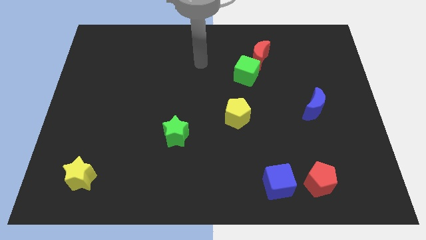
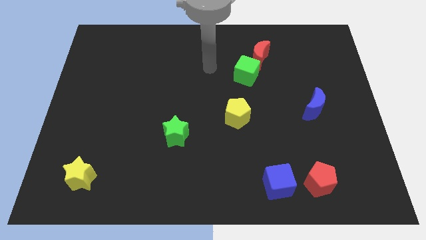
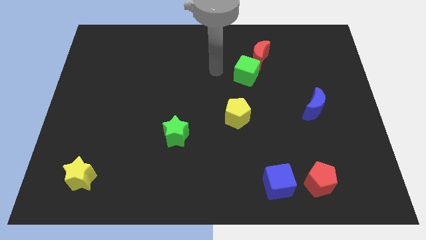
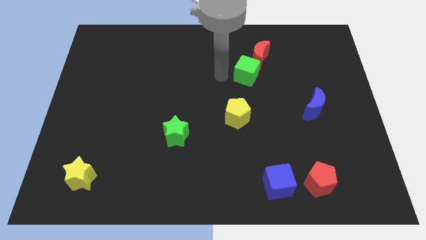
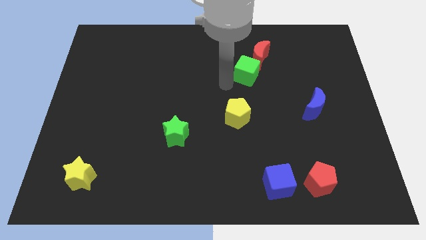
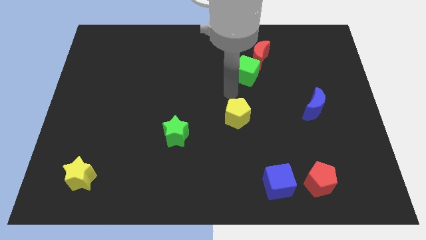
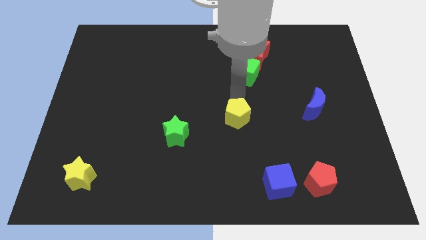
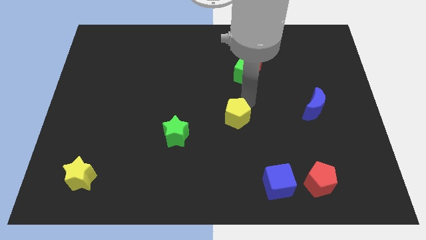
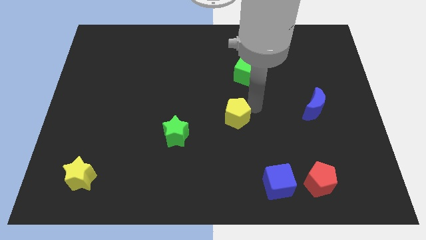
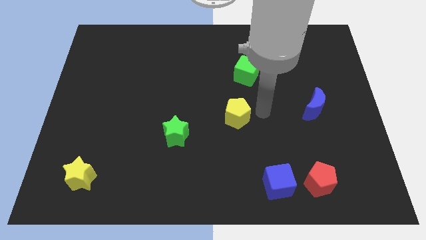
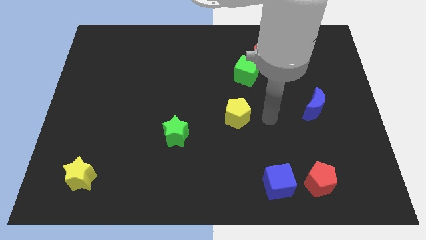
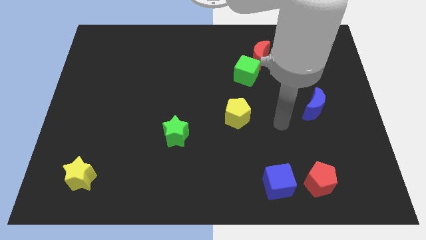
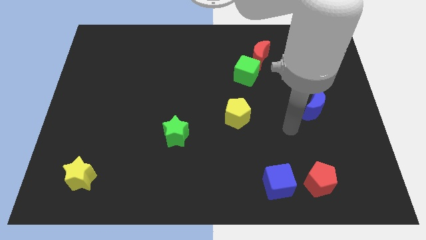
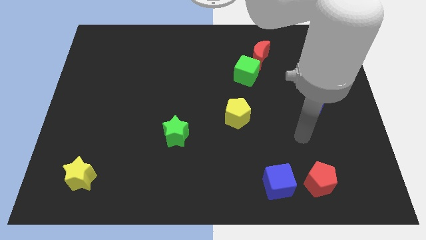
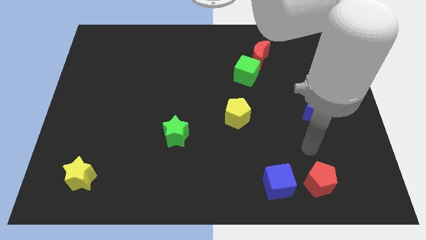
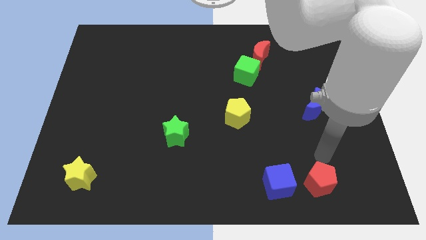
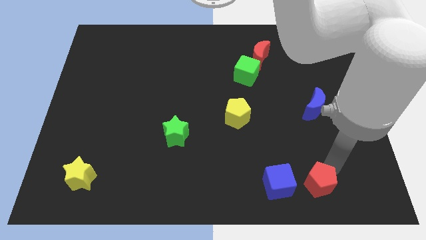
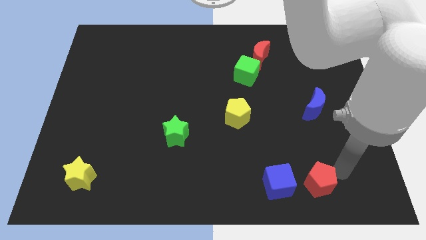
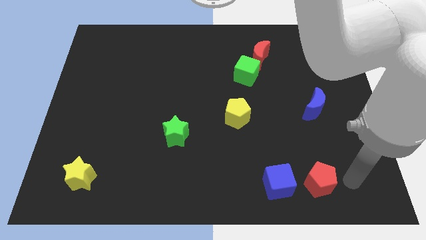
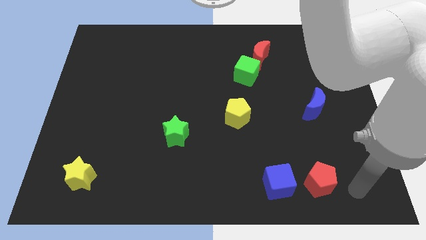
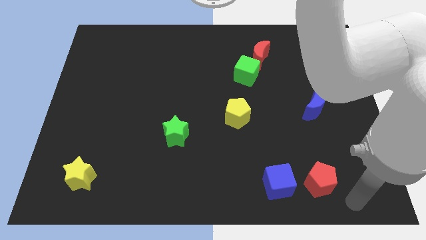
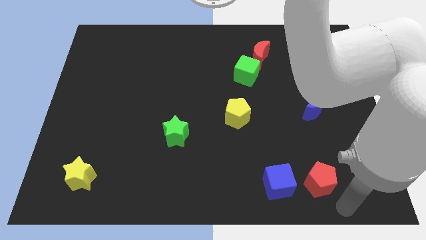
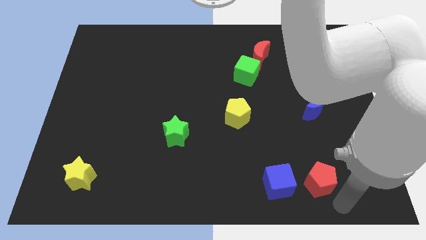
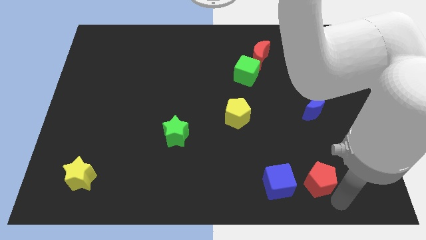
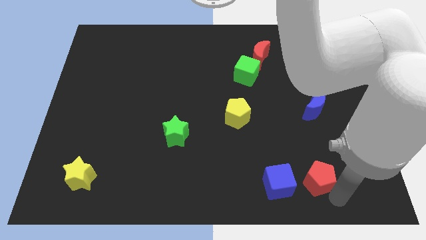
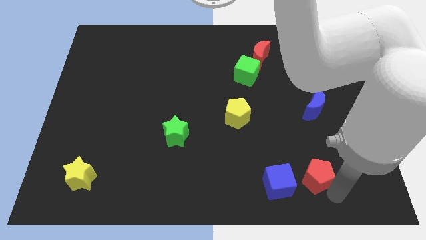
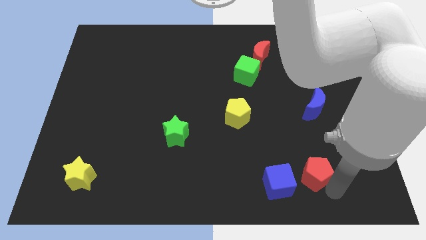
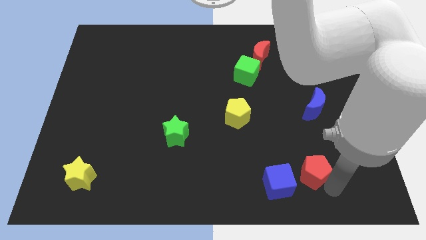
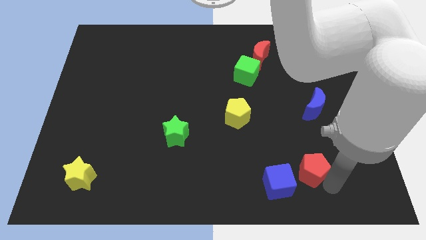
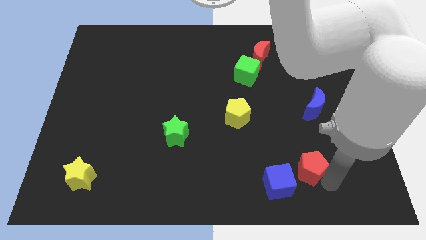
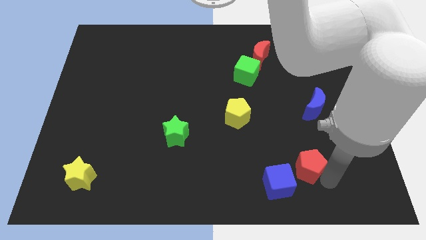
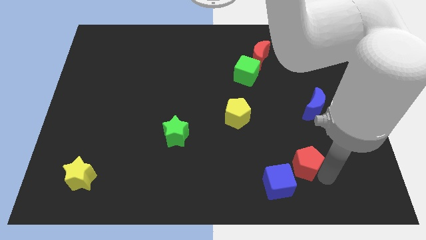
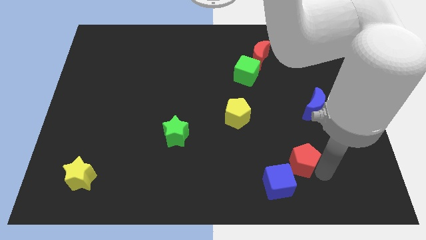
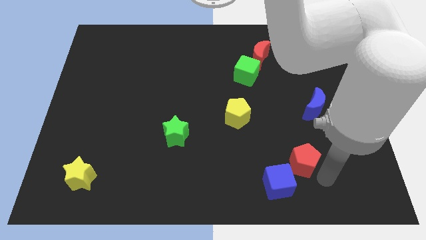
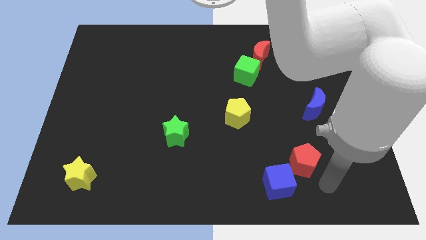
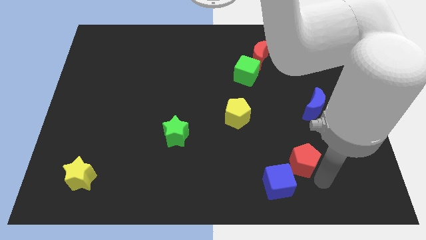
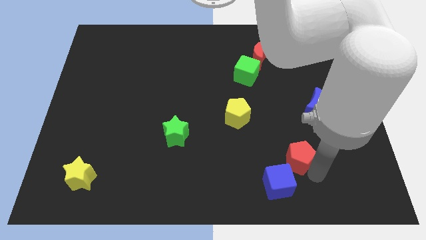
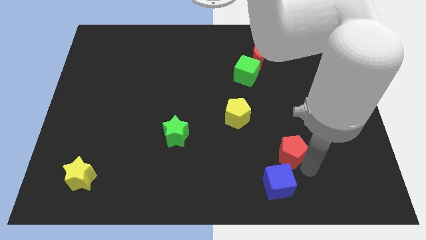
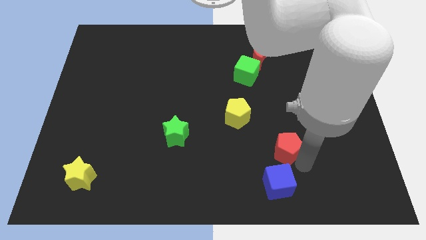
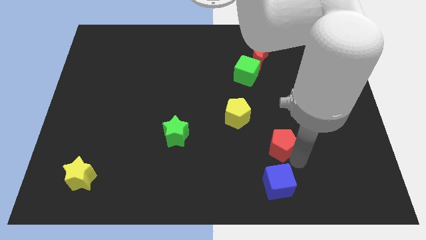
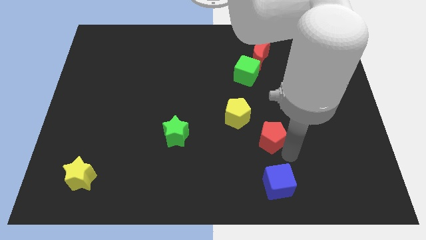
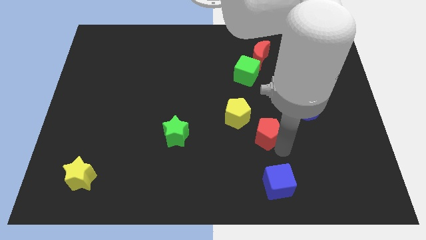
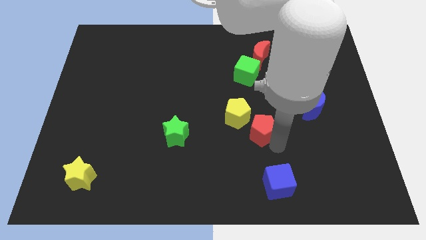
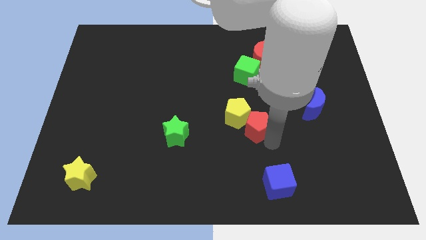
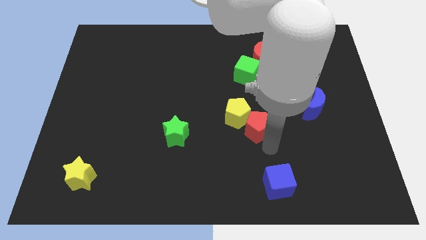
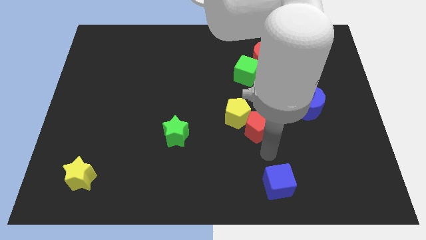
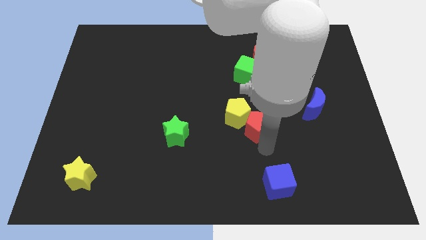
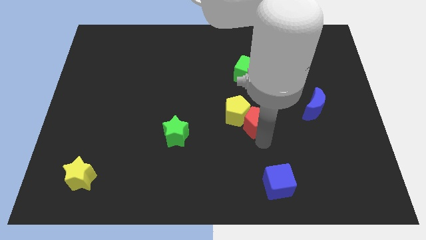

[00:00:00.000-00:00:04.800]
move the red pentagon to the bottom of the green cube

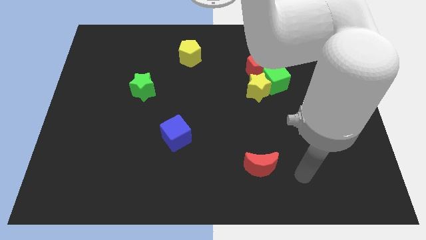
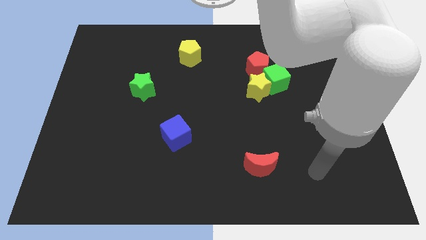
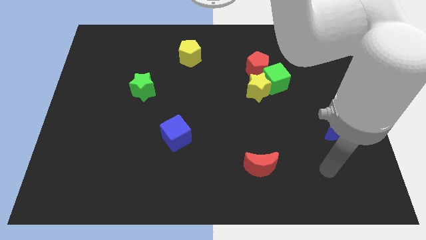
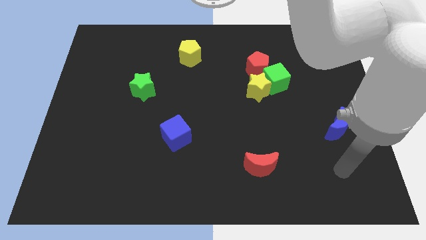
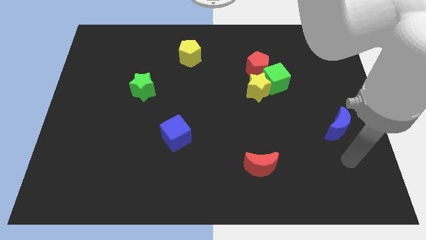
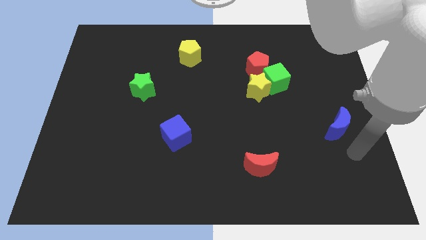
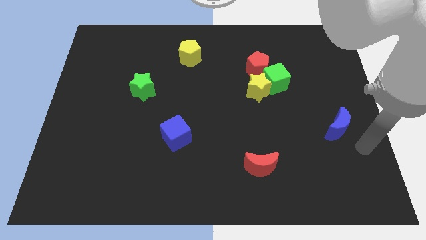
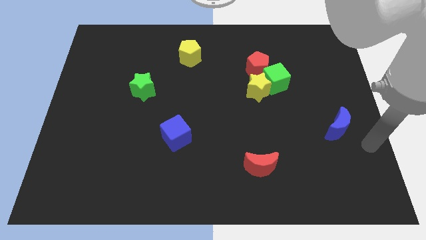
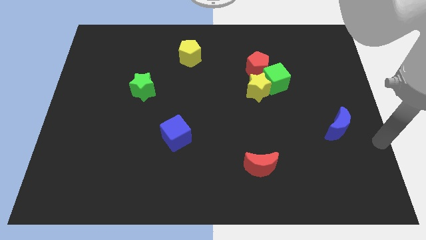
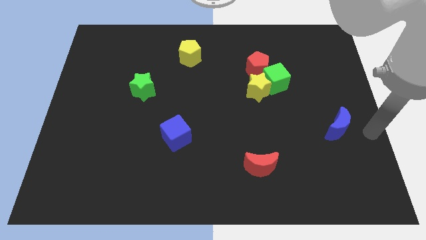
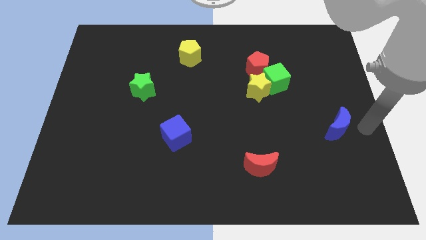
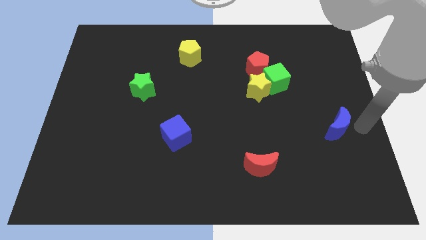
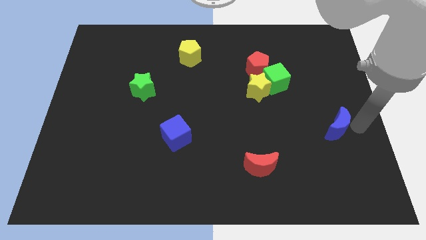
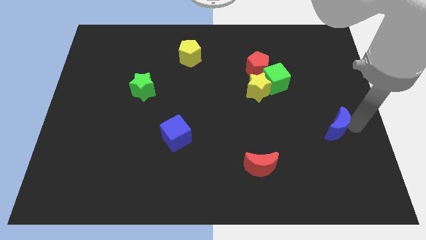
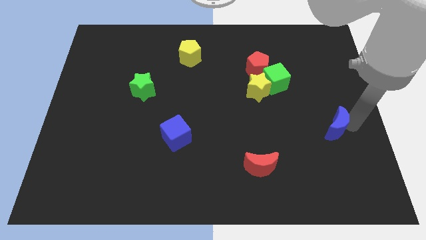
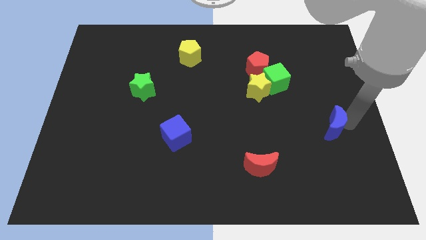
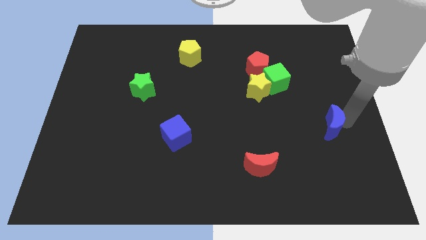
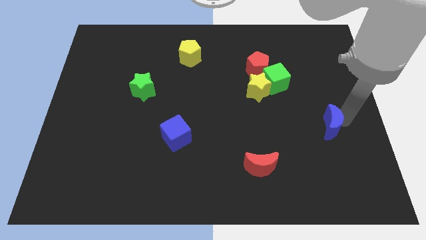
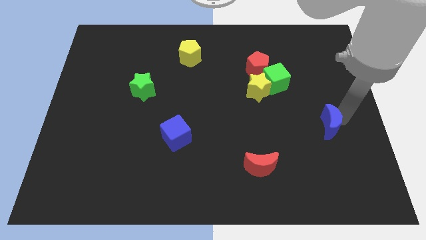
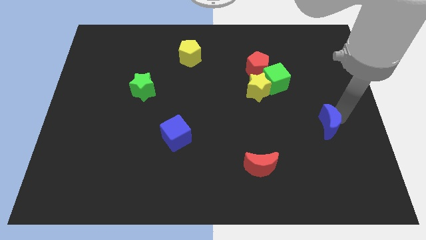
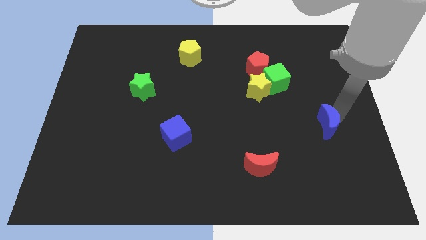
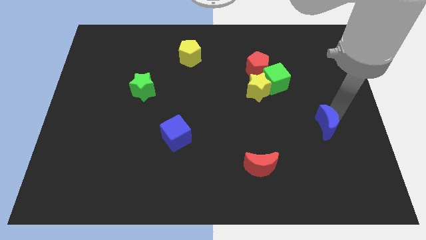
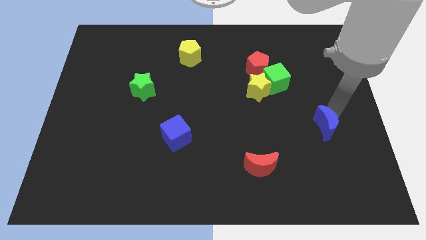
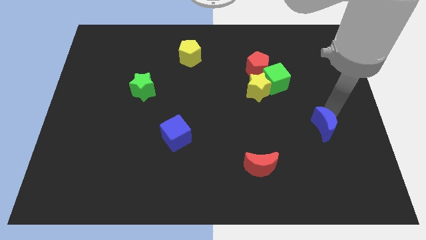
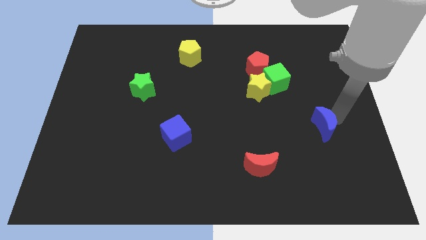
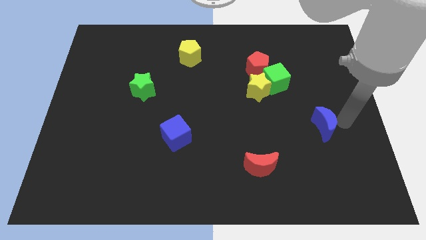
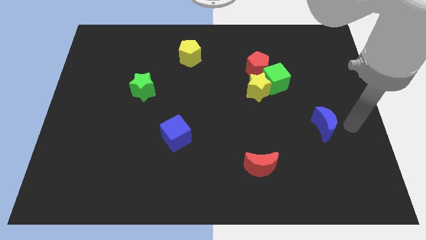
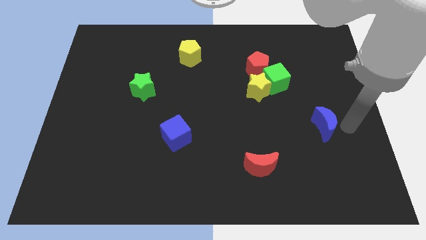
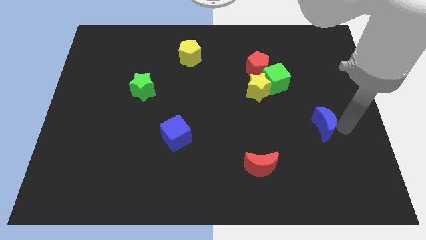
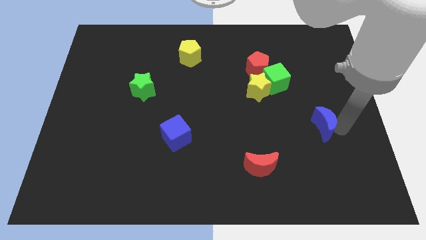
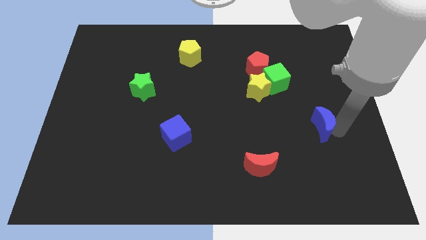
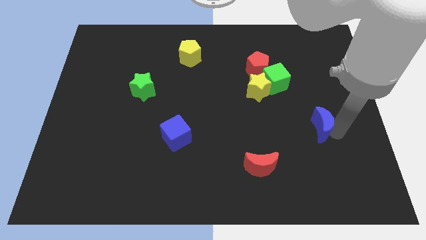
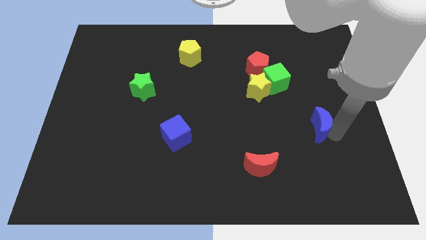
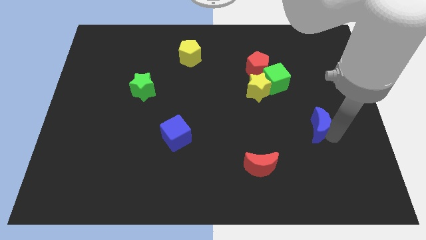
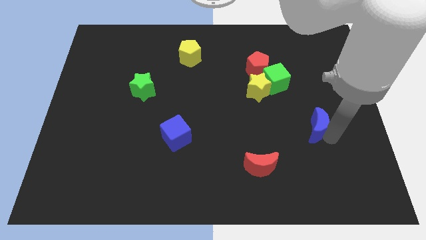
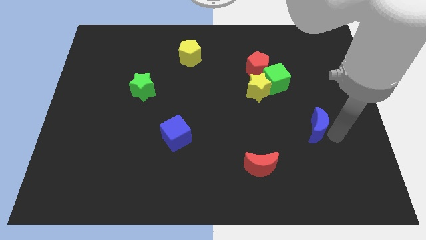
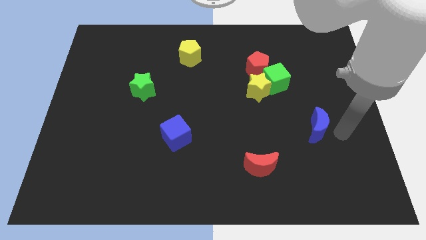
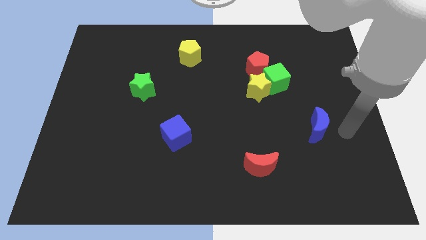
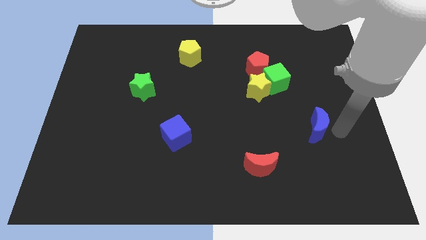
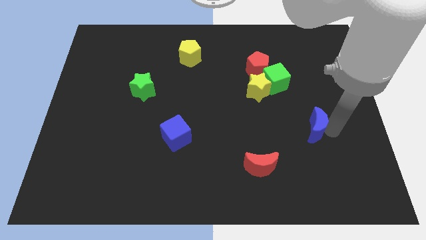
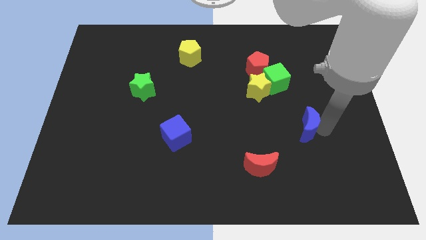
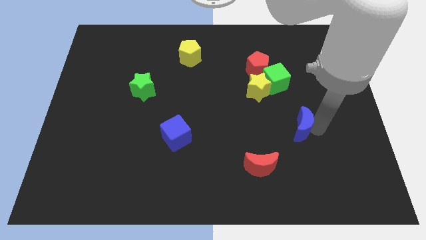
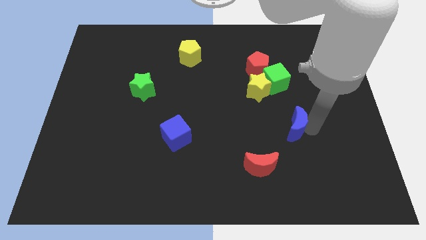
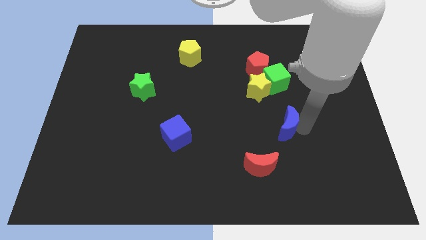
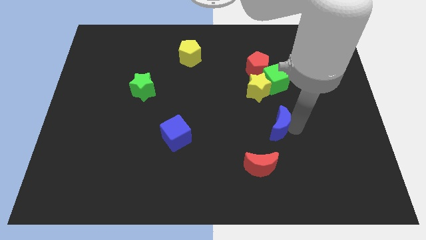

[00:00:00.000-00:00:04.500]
push the blue moon to the bottom side of the yellow star
